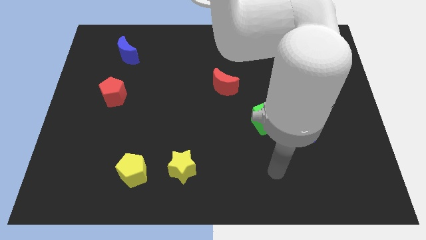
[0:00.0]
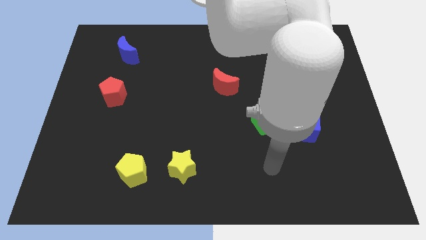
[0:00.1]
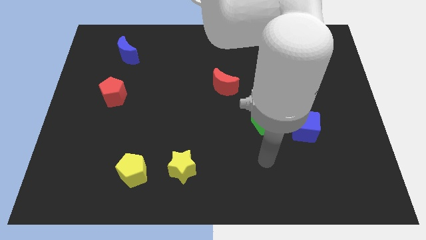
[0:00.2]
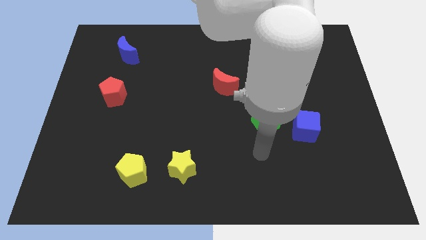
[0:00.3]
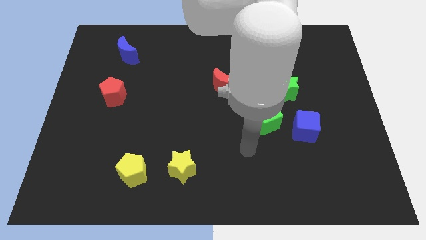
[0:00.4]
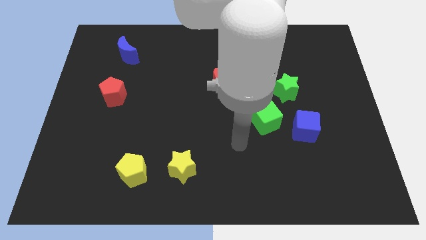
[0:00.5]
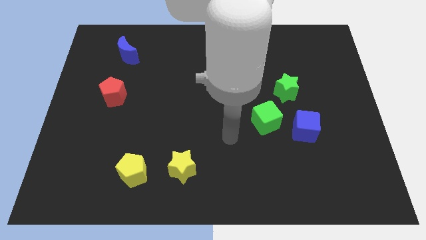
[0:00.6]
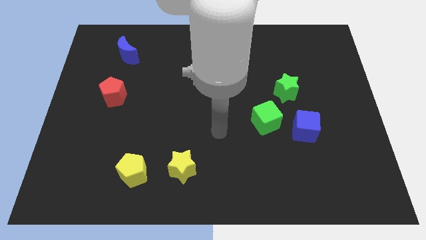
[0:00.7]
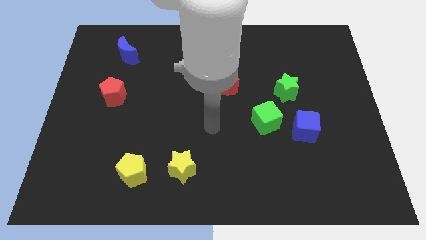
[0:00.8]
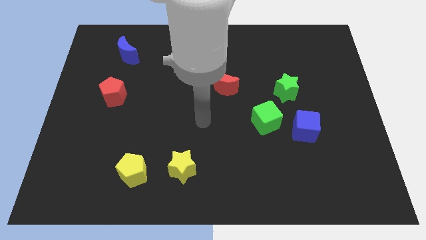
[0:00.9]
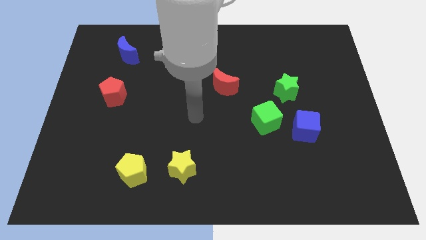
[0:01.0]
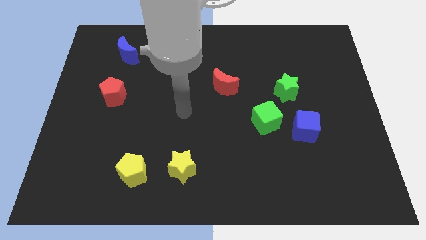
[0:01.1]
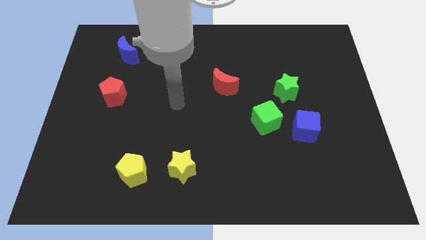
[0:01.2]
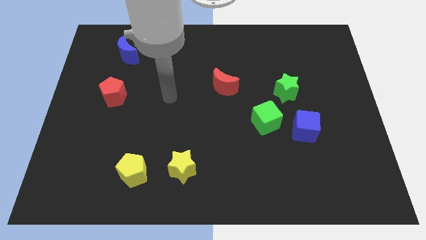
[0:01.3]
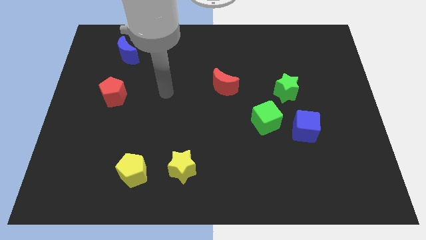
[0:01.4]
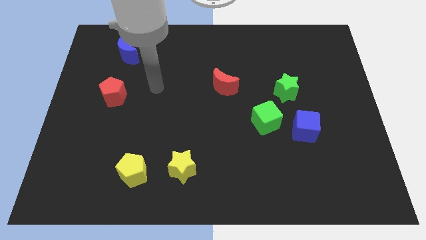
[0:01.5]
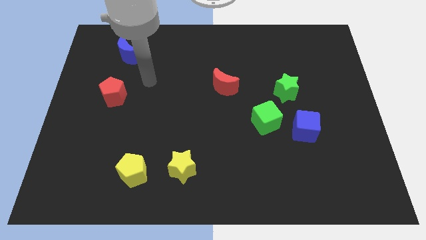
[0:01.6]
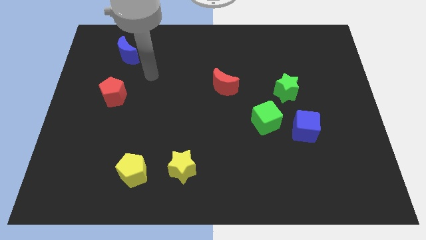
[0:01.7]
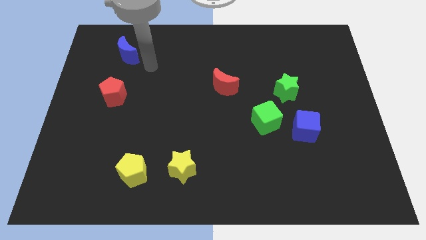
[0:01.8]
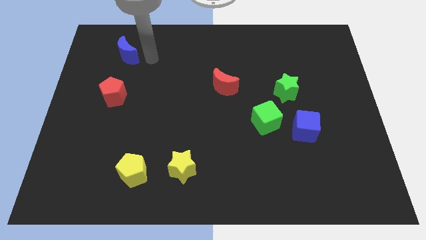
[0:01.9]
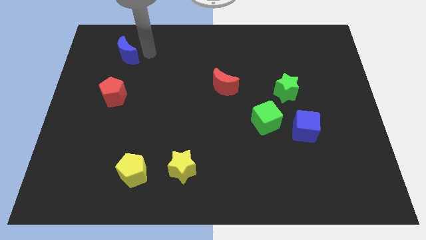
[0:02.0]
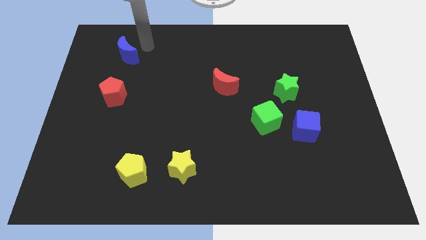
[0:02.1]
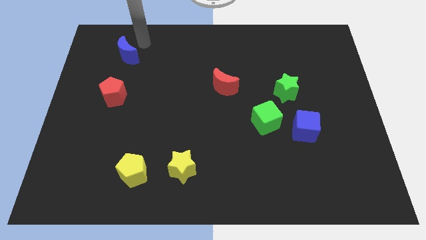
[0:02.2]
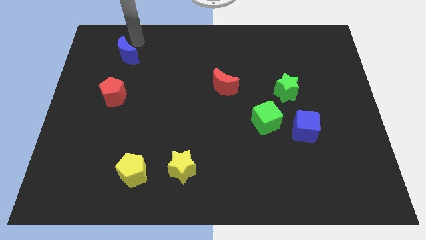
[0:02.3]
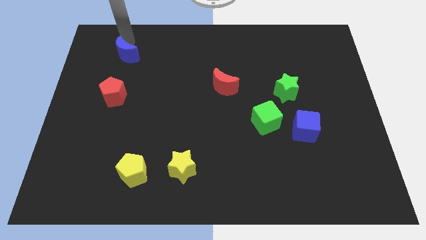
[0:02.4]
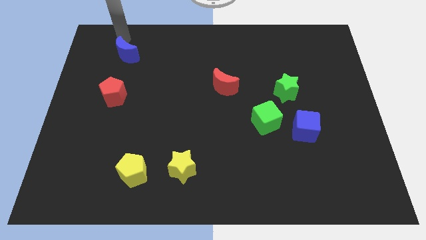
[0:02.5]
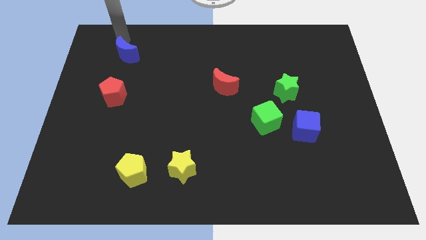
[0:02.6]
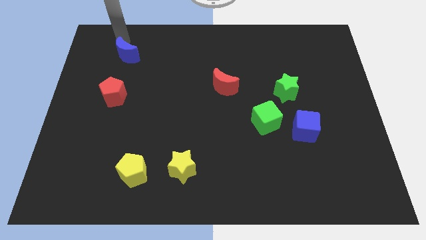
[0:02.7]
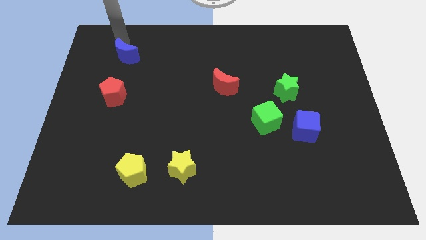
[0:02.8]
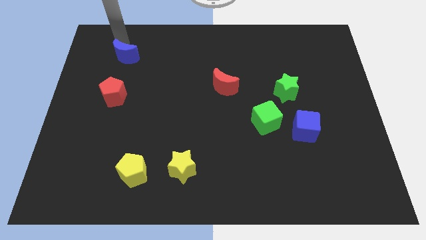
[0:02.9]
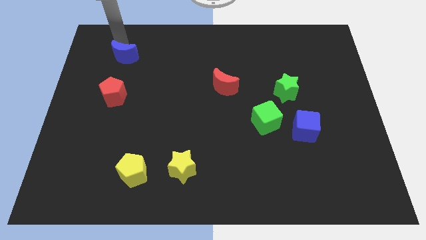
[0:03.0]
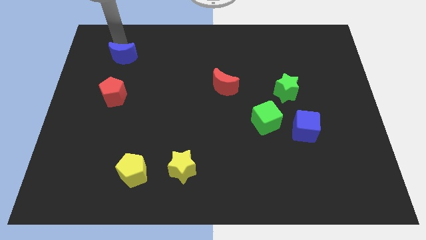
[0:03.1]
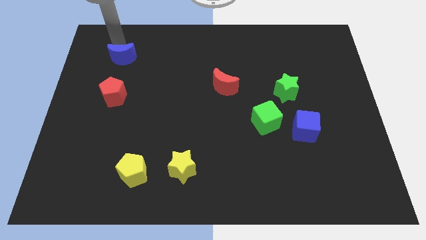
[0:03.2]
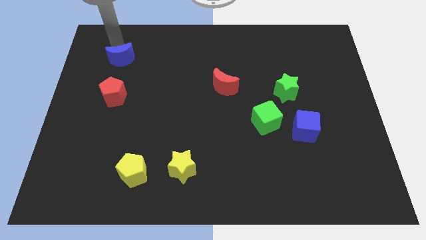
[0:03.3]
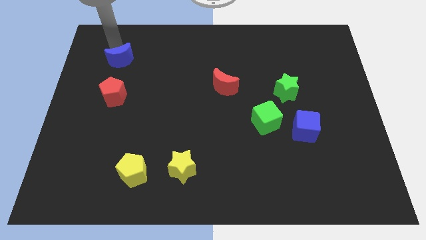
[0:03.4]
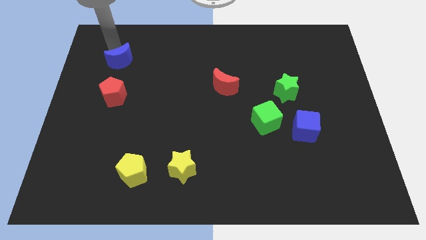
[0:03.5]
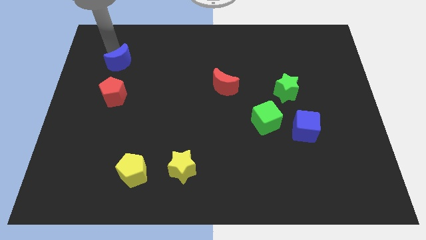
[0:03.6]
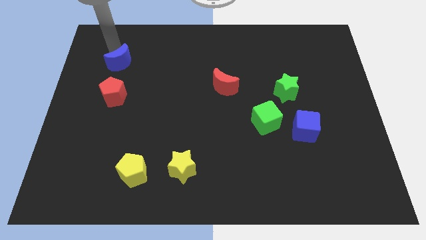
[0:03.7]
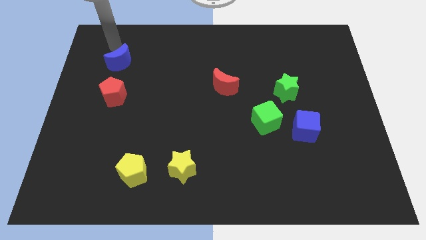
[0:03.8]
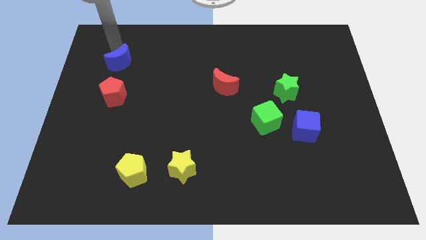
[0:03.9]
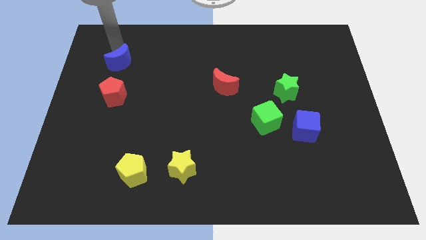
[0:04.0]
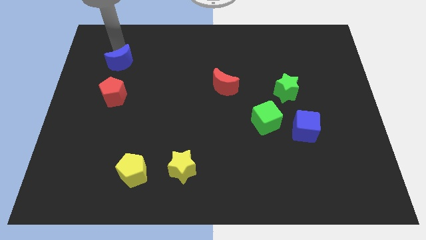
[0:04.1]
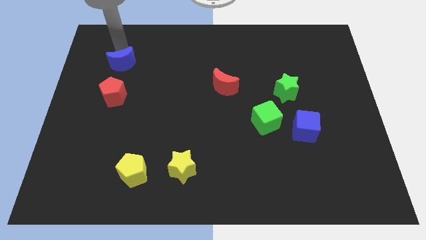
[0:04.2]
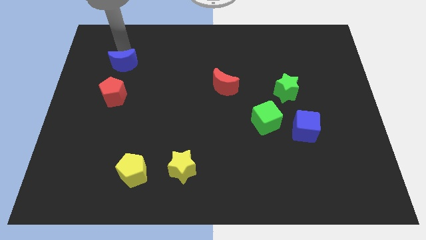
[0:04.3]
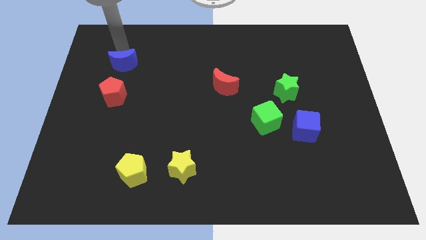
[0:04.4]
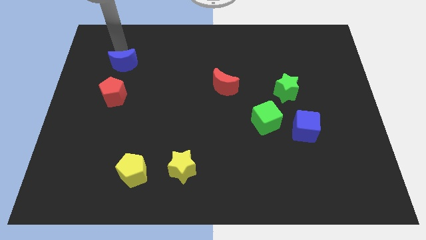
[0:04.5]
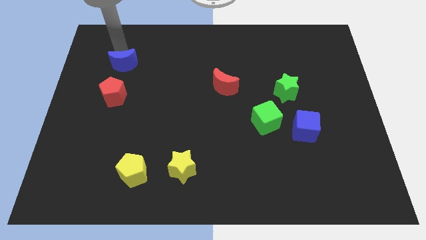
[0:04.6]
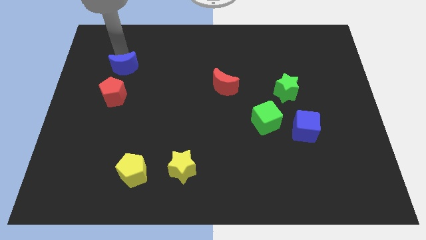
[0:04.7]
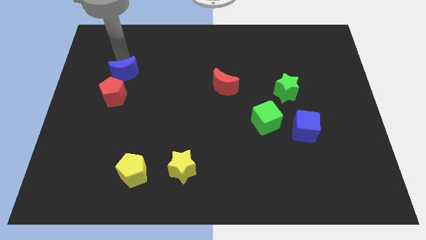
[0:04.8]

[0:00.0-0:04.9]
push the blue moon somewhat downwards

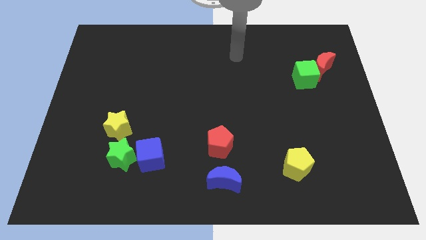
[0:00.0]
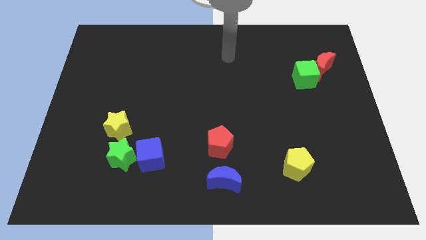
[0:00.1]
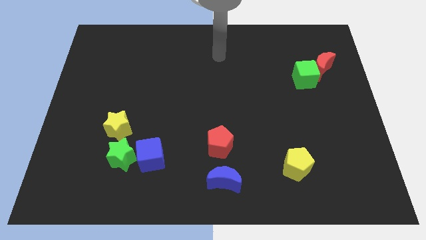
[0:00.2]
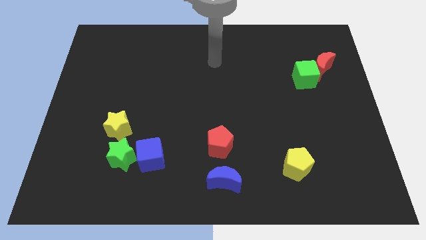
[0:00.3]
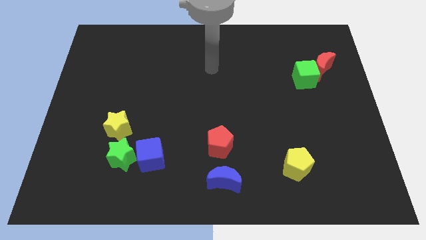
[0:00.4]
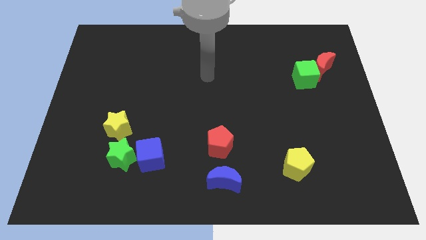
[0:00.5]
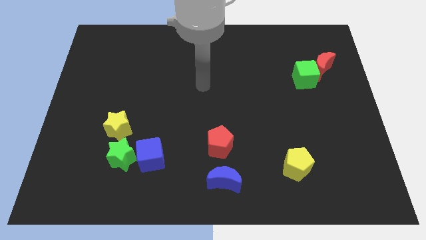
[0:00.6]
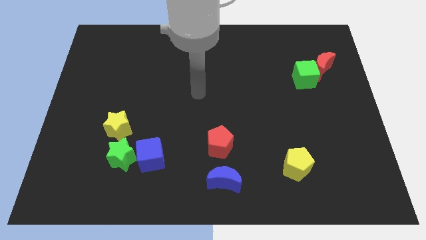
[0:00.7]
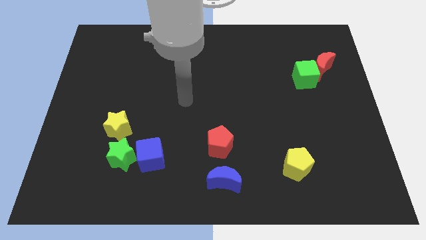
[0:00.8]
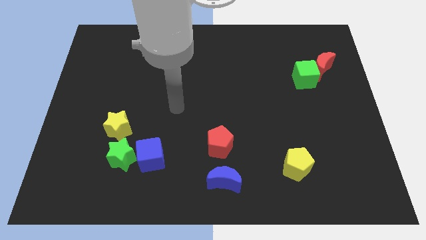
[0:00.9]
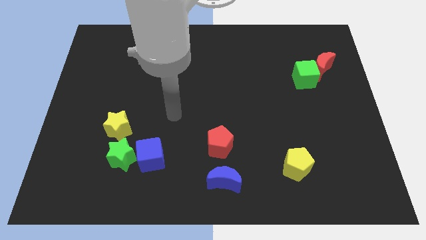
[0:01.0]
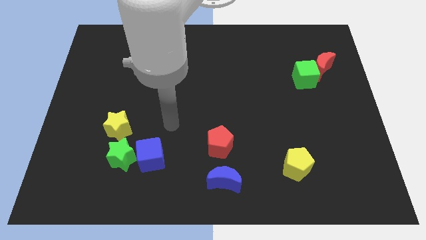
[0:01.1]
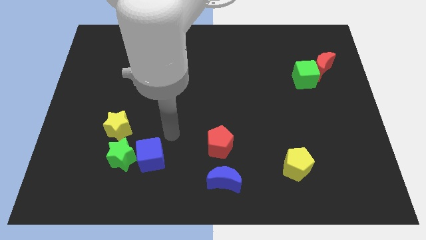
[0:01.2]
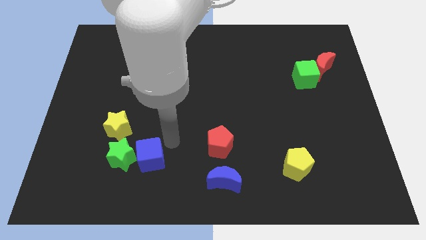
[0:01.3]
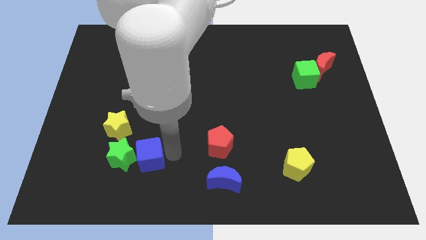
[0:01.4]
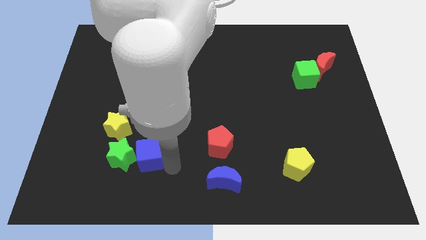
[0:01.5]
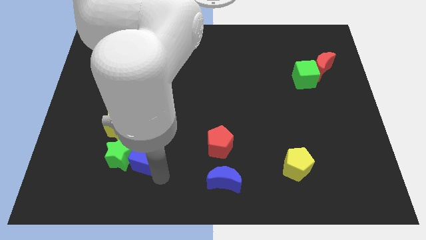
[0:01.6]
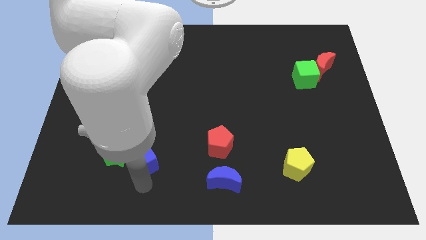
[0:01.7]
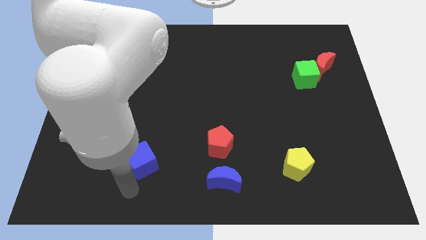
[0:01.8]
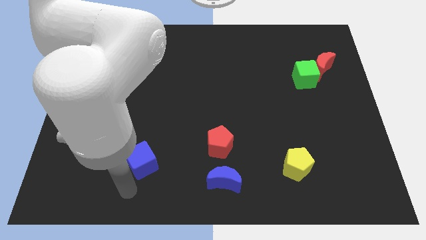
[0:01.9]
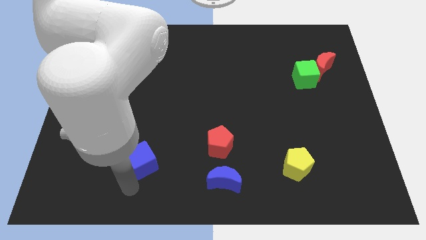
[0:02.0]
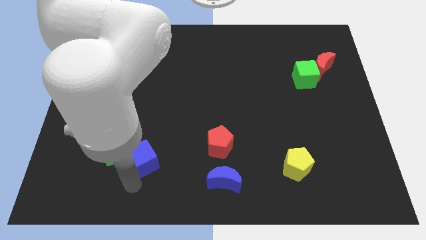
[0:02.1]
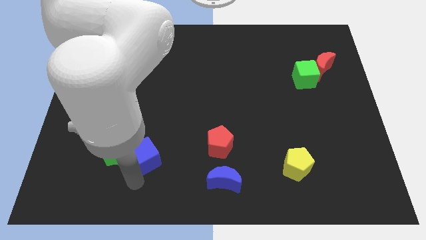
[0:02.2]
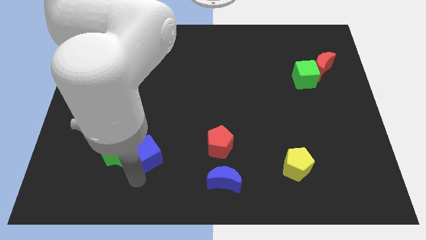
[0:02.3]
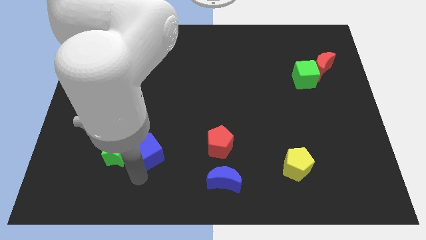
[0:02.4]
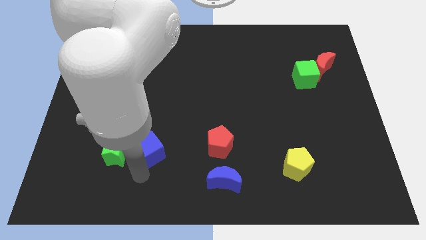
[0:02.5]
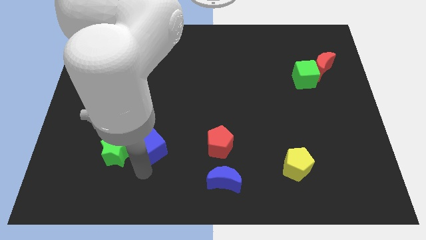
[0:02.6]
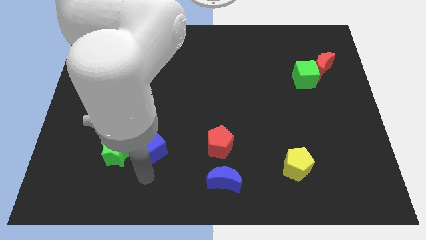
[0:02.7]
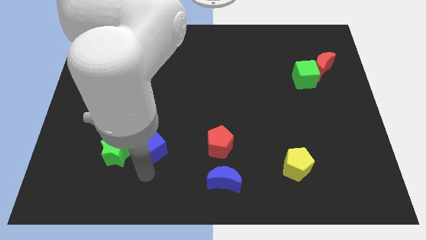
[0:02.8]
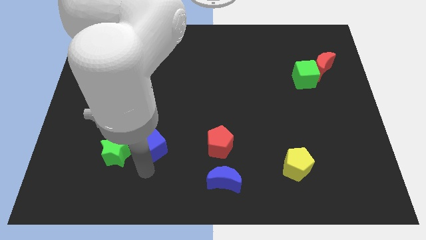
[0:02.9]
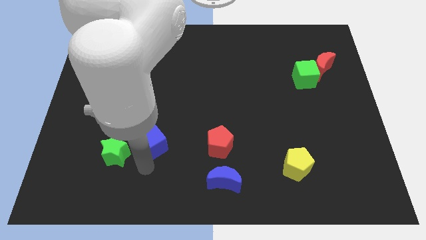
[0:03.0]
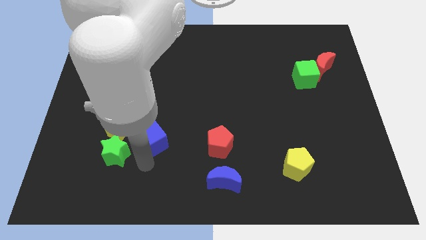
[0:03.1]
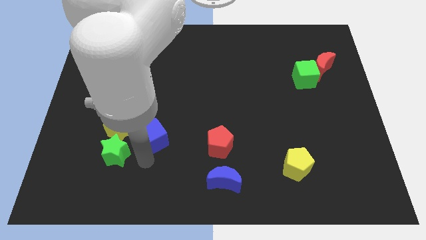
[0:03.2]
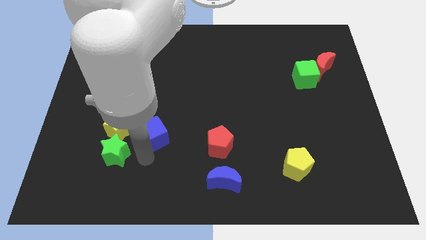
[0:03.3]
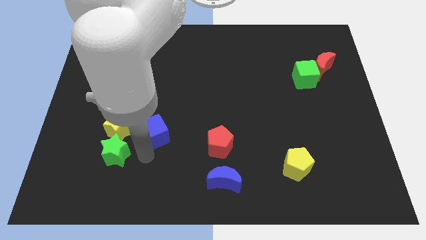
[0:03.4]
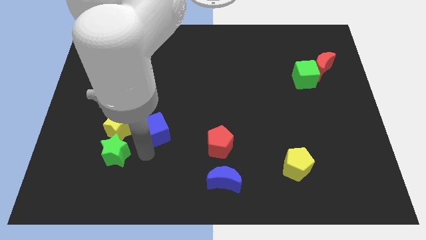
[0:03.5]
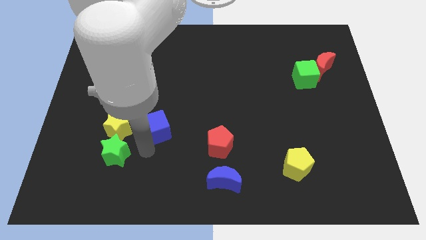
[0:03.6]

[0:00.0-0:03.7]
slightly push the blue cube up
